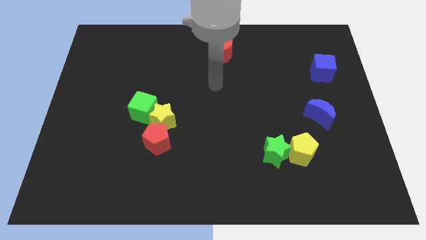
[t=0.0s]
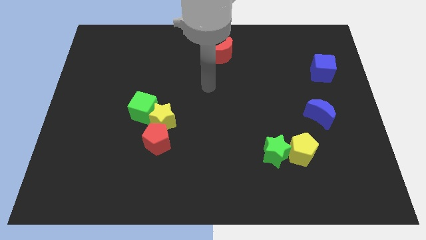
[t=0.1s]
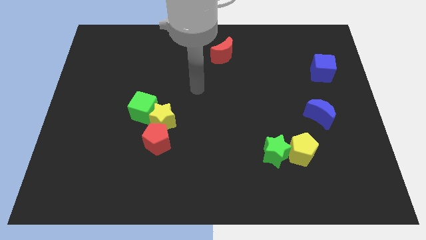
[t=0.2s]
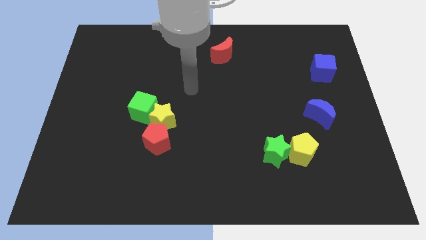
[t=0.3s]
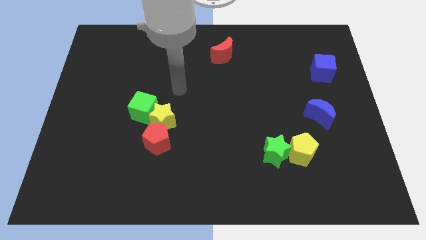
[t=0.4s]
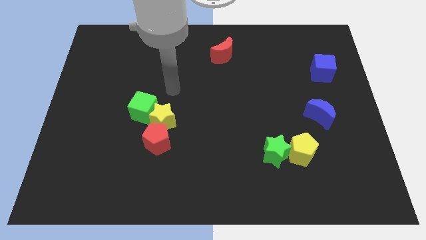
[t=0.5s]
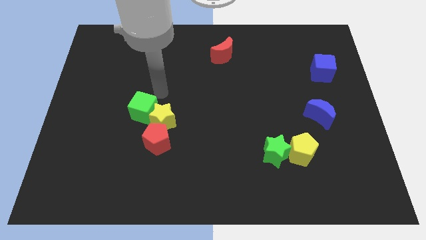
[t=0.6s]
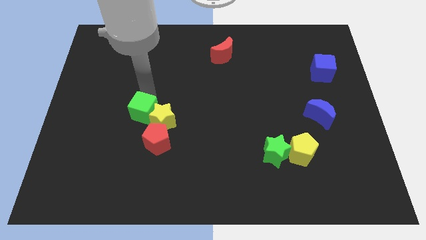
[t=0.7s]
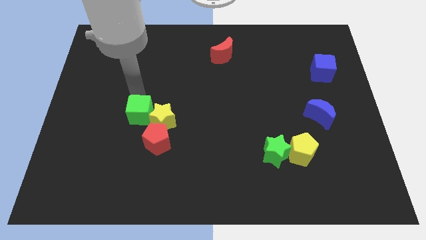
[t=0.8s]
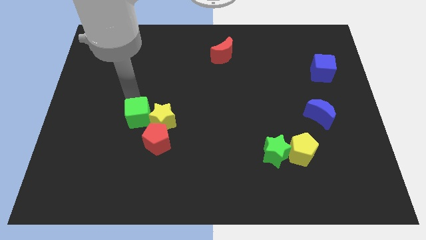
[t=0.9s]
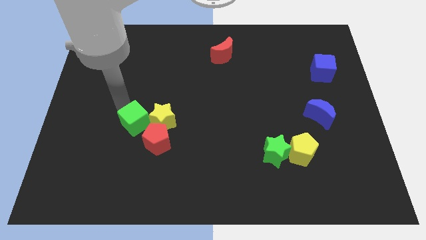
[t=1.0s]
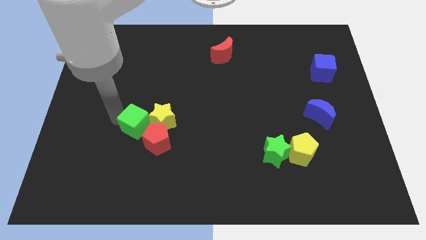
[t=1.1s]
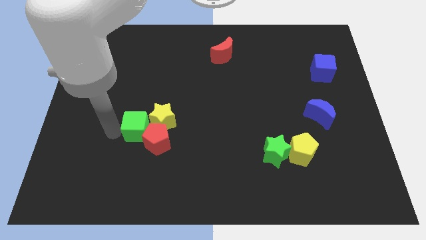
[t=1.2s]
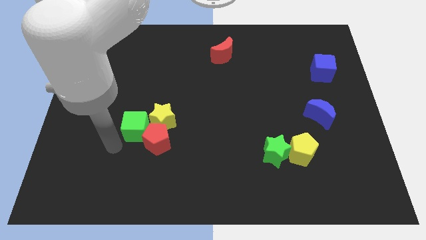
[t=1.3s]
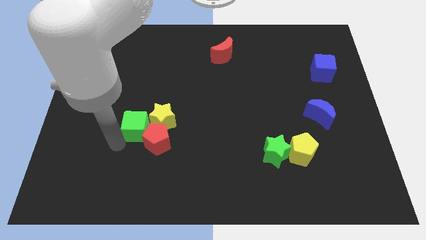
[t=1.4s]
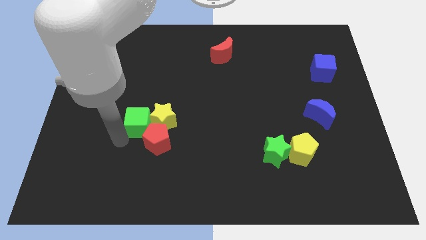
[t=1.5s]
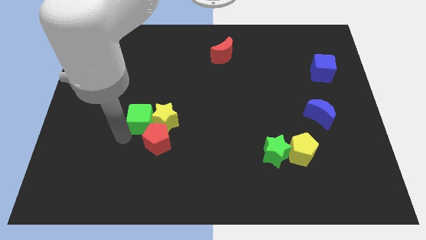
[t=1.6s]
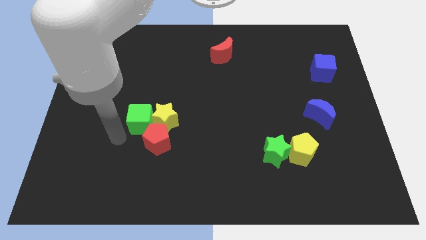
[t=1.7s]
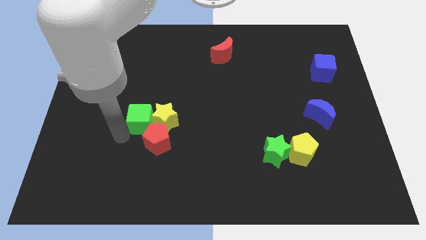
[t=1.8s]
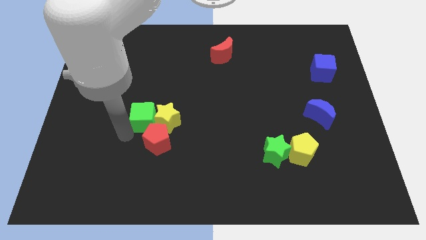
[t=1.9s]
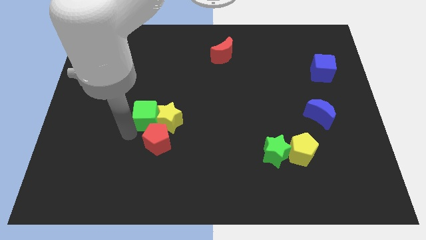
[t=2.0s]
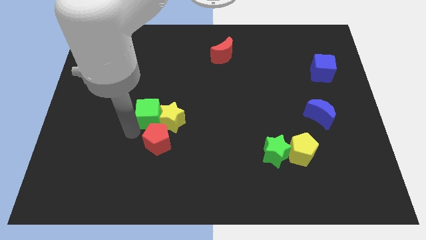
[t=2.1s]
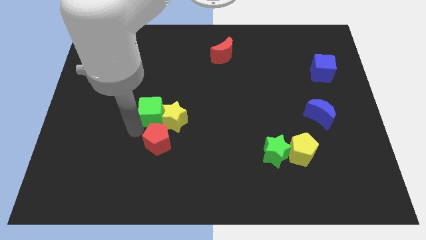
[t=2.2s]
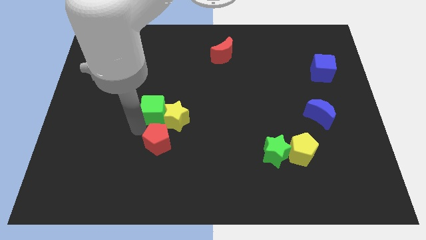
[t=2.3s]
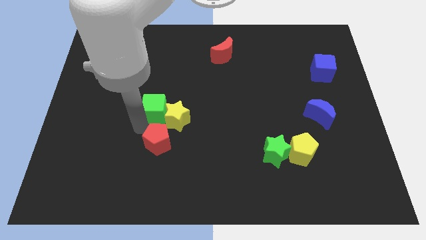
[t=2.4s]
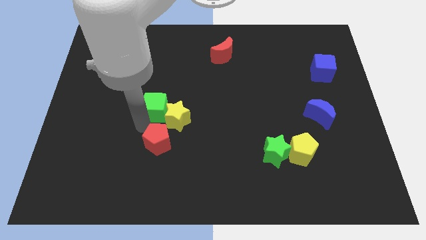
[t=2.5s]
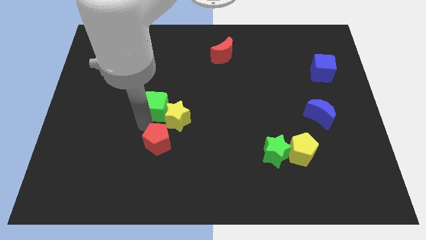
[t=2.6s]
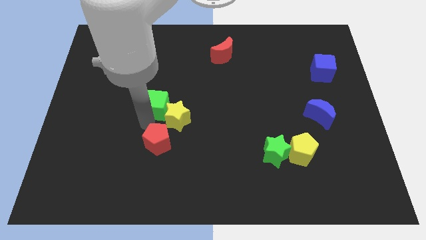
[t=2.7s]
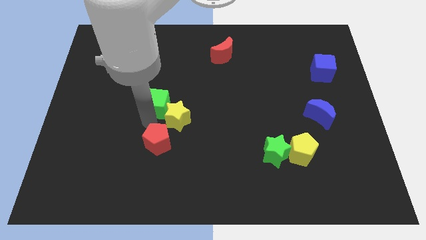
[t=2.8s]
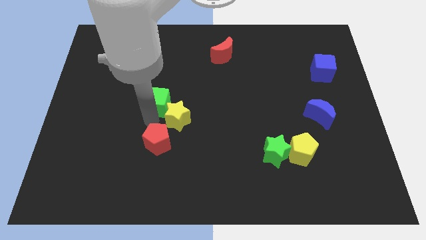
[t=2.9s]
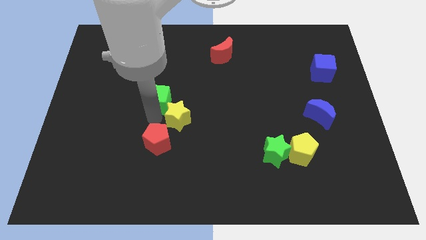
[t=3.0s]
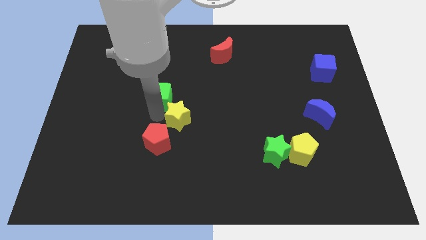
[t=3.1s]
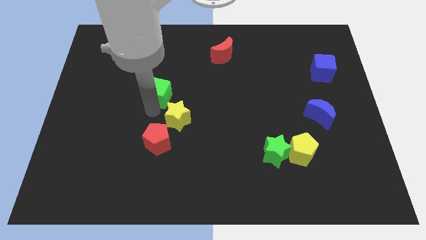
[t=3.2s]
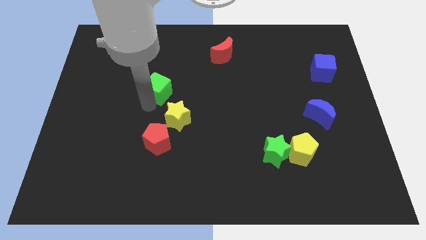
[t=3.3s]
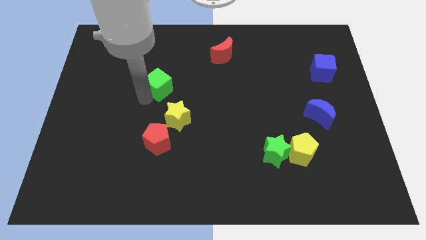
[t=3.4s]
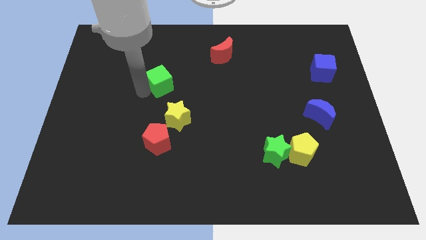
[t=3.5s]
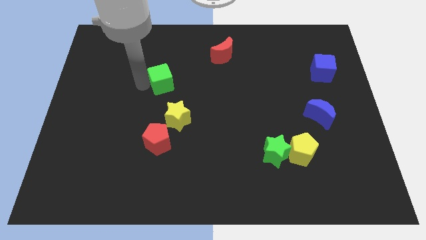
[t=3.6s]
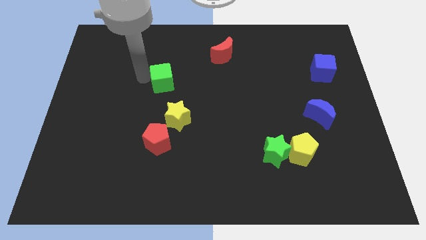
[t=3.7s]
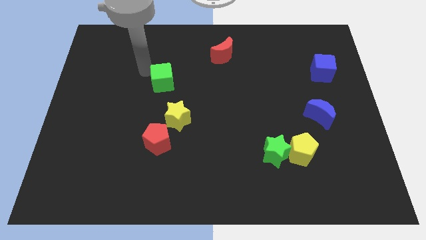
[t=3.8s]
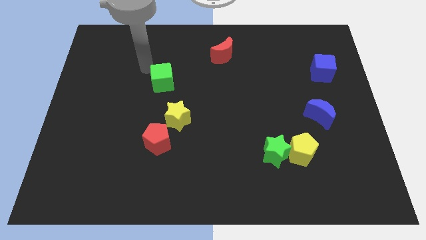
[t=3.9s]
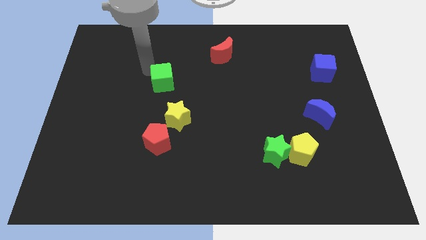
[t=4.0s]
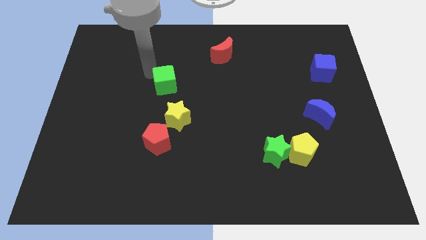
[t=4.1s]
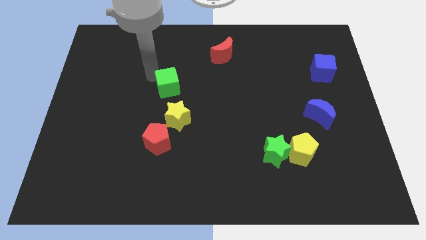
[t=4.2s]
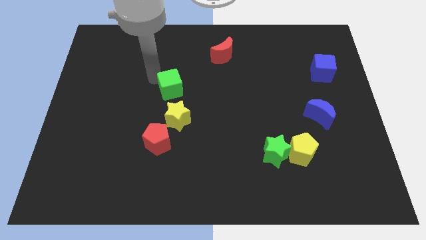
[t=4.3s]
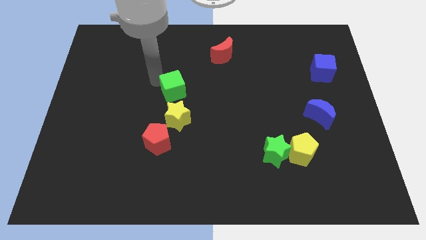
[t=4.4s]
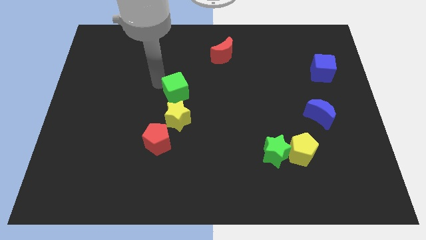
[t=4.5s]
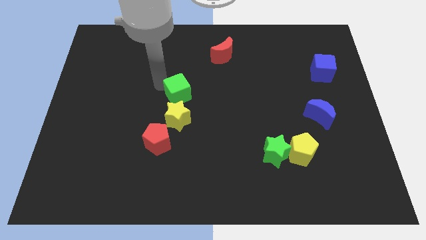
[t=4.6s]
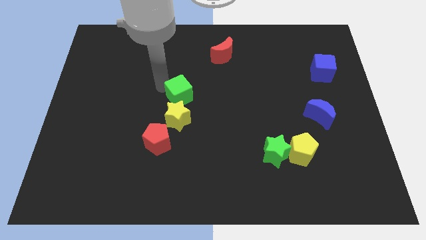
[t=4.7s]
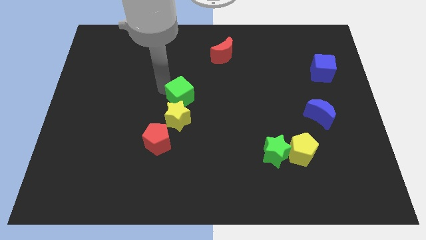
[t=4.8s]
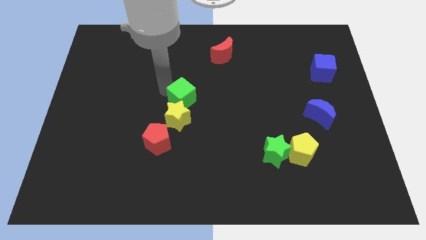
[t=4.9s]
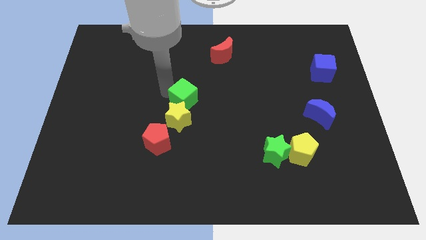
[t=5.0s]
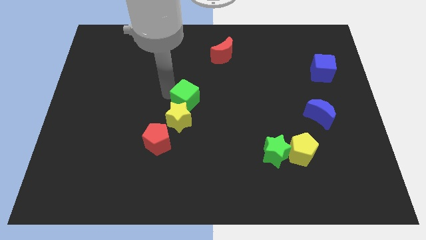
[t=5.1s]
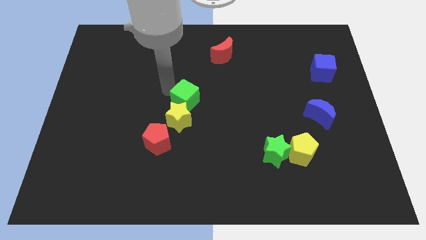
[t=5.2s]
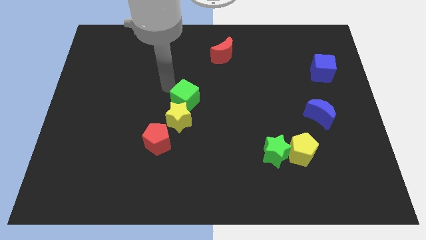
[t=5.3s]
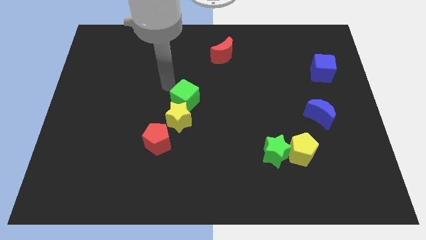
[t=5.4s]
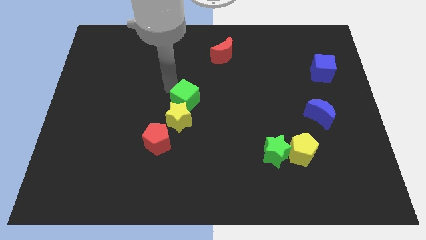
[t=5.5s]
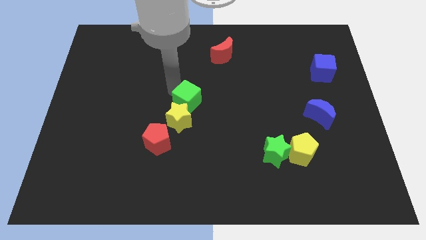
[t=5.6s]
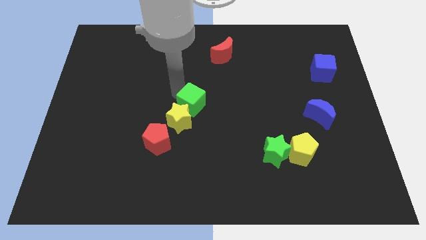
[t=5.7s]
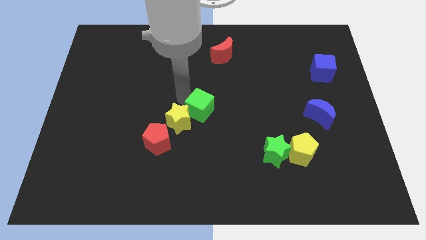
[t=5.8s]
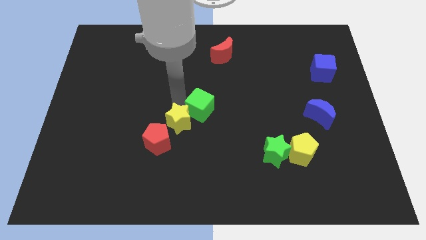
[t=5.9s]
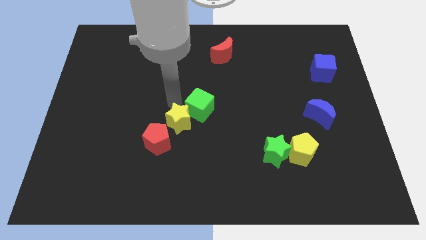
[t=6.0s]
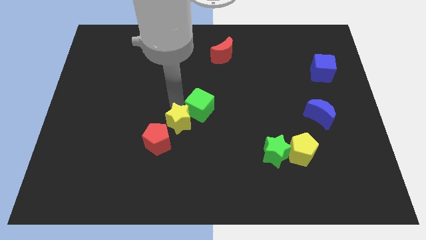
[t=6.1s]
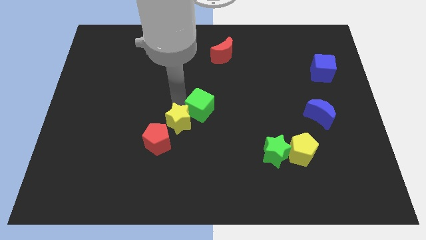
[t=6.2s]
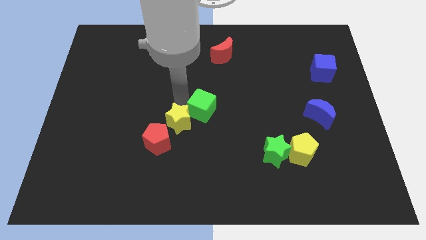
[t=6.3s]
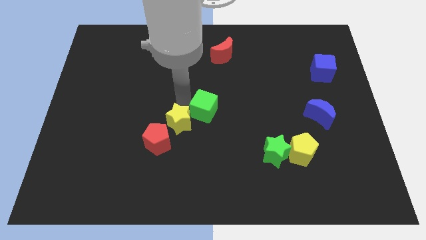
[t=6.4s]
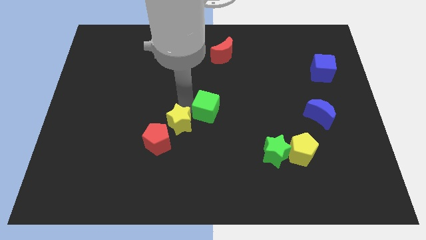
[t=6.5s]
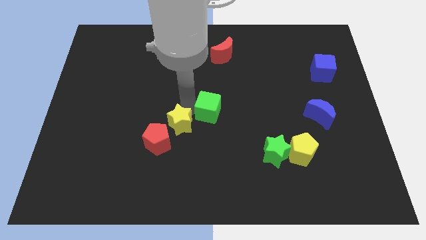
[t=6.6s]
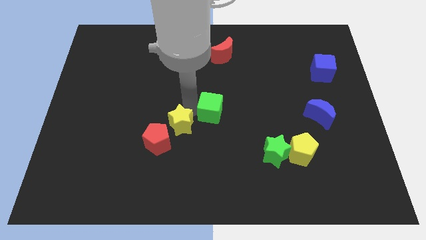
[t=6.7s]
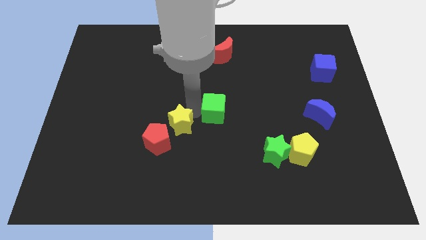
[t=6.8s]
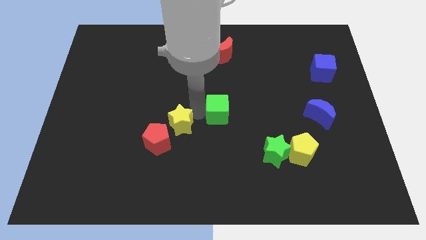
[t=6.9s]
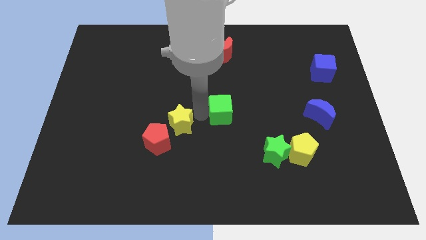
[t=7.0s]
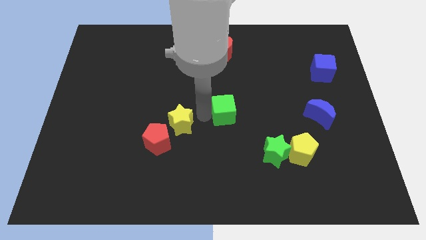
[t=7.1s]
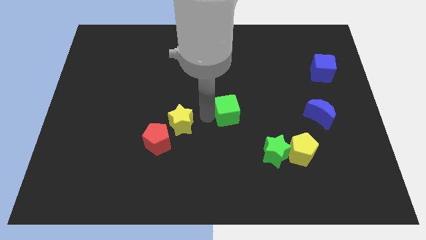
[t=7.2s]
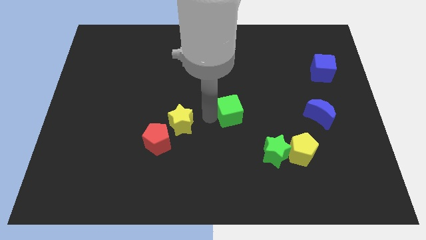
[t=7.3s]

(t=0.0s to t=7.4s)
push the green cube right

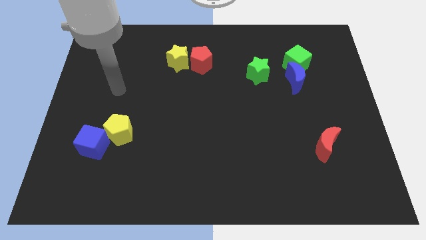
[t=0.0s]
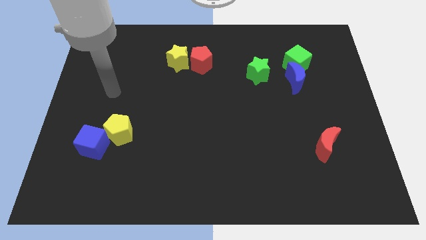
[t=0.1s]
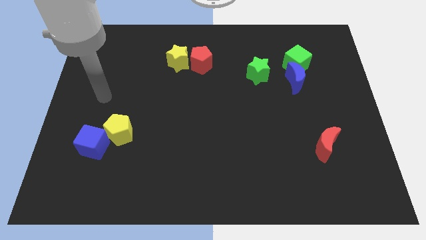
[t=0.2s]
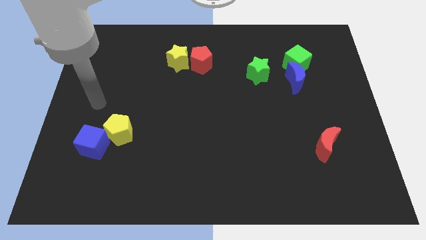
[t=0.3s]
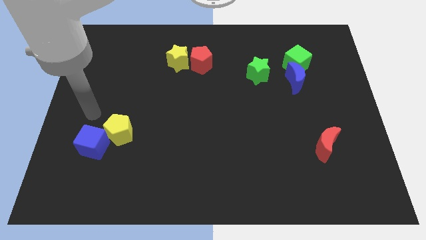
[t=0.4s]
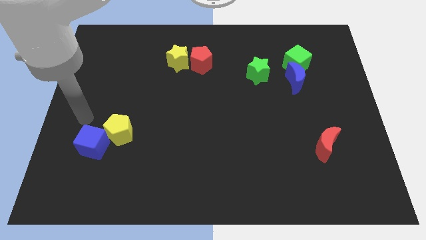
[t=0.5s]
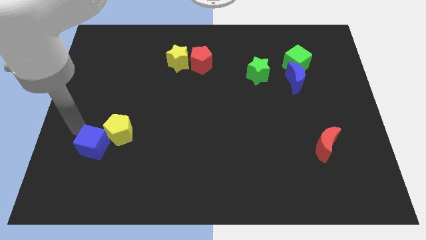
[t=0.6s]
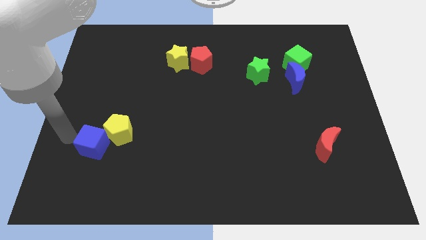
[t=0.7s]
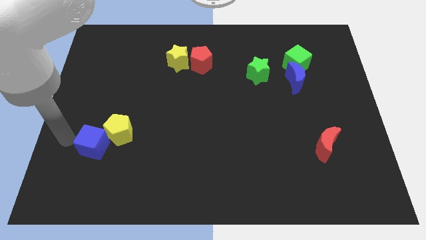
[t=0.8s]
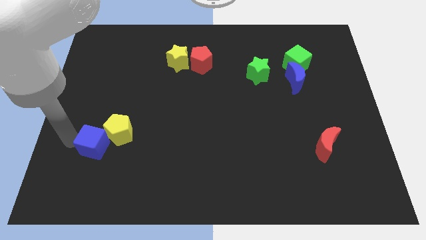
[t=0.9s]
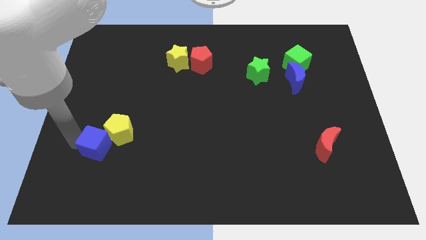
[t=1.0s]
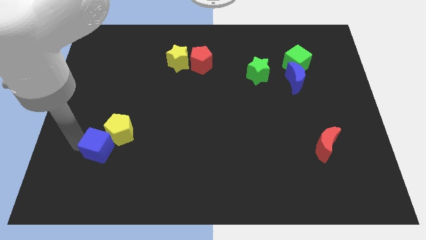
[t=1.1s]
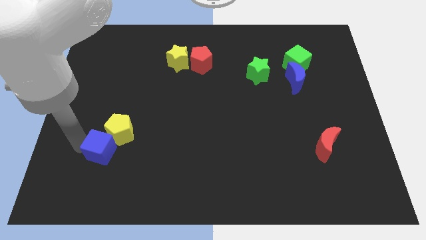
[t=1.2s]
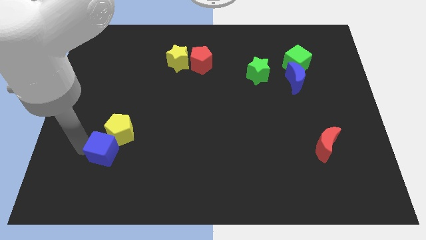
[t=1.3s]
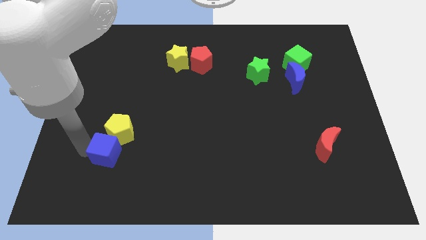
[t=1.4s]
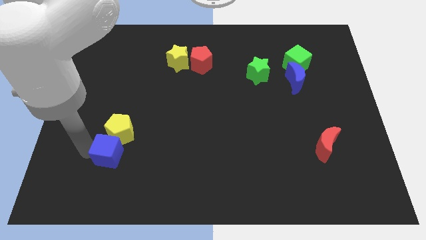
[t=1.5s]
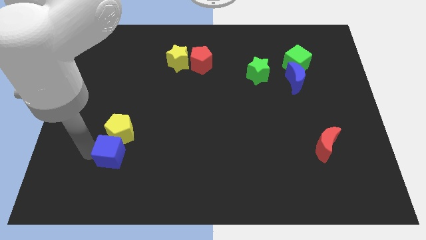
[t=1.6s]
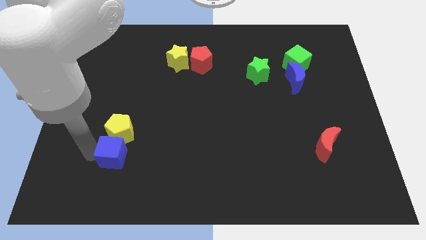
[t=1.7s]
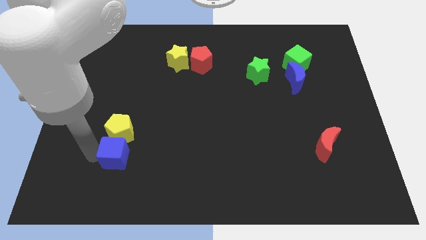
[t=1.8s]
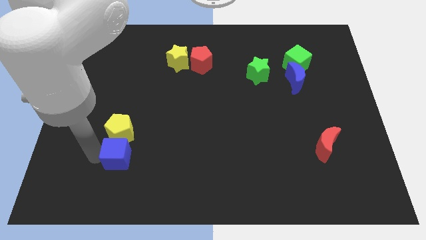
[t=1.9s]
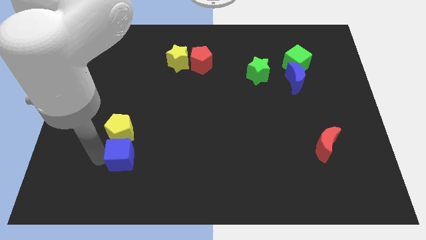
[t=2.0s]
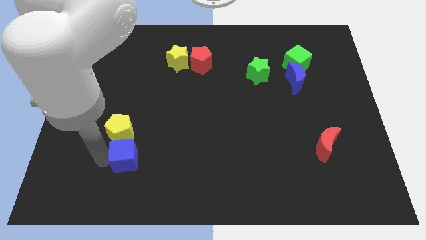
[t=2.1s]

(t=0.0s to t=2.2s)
push the blue cube a little to the right
